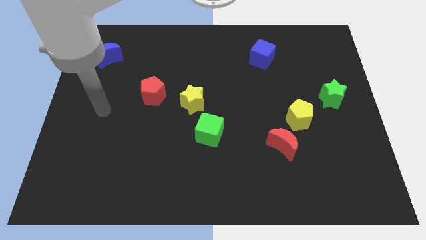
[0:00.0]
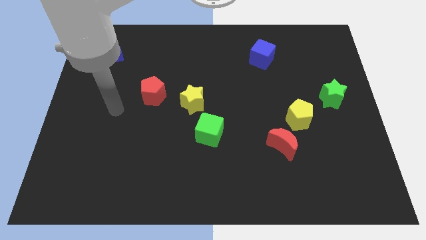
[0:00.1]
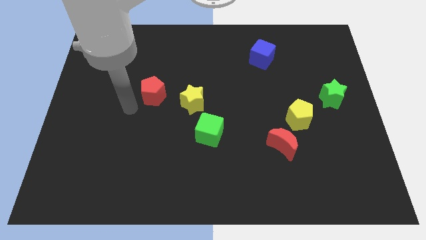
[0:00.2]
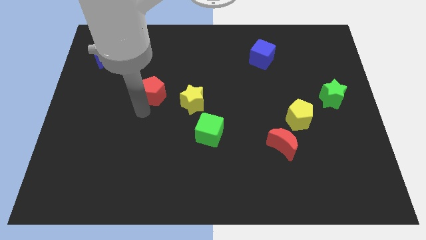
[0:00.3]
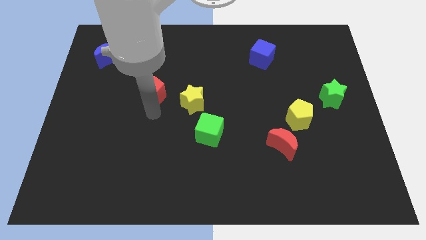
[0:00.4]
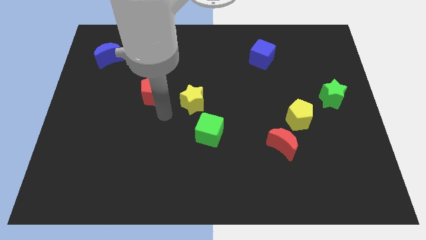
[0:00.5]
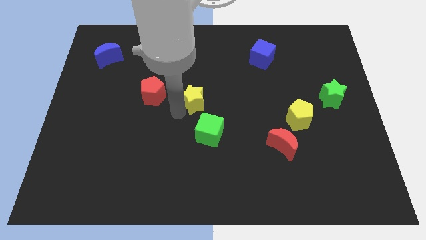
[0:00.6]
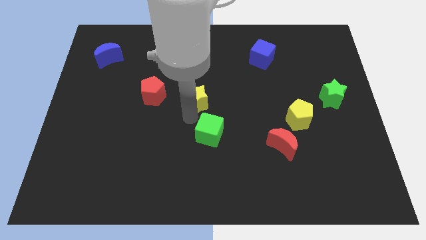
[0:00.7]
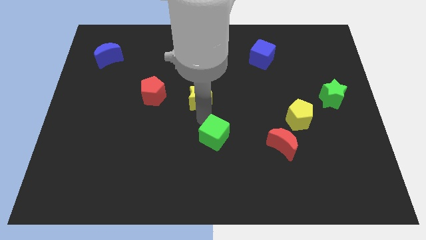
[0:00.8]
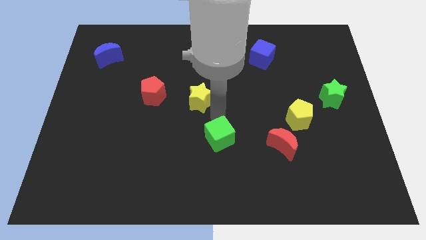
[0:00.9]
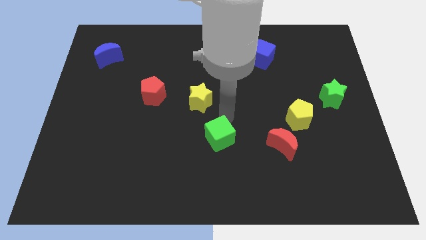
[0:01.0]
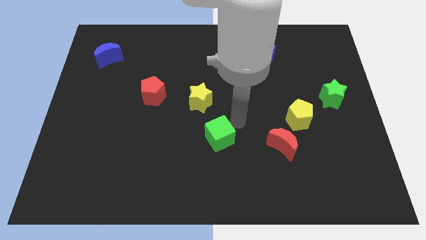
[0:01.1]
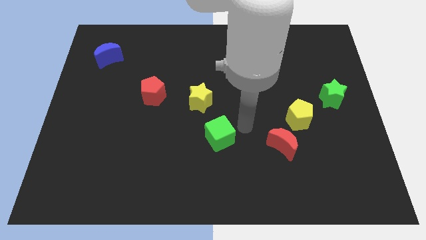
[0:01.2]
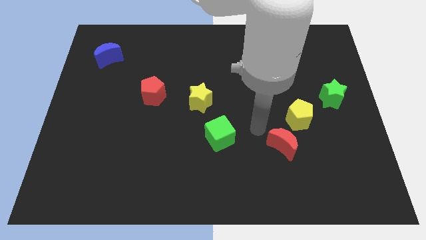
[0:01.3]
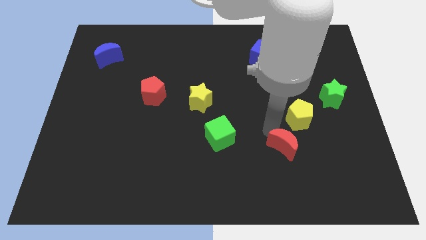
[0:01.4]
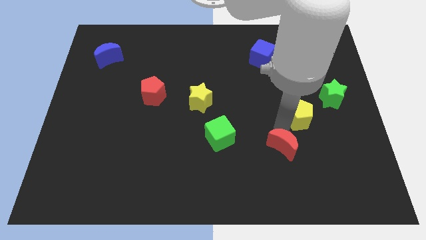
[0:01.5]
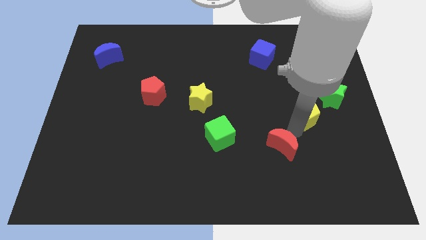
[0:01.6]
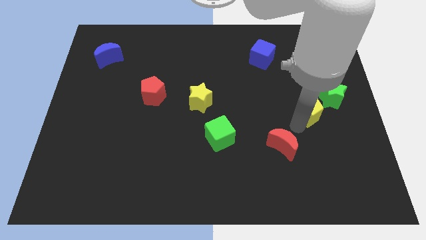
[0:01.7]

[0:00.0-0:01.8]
pull the red moon apart from the yellow pentagon

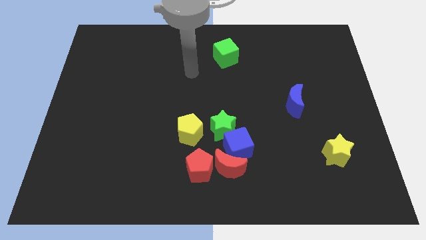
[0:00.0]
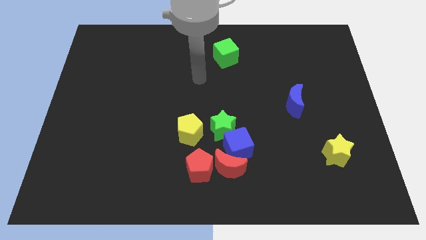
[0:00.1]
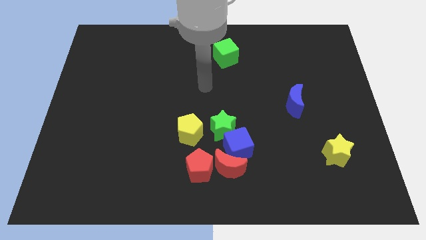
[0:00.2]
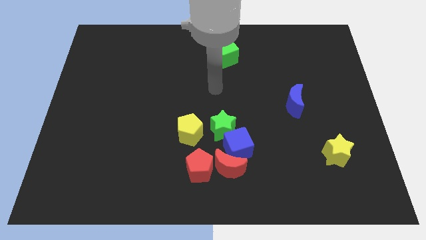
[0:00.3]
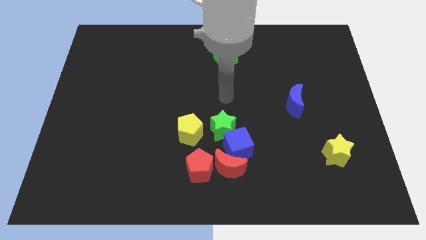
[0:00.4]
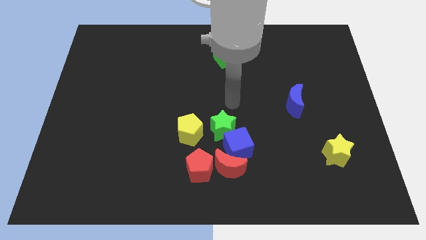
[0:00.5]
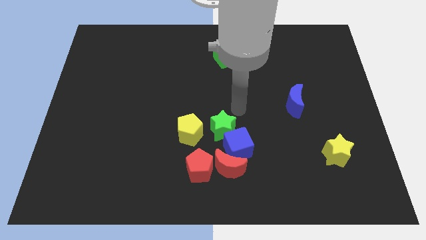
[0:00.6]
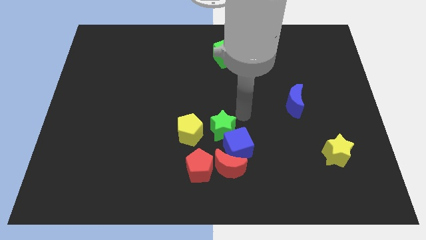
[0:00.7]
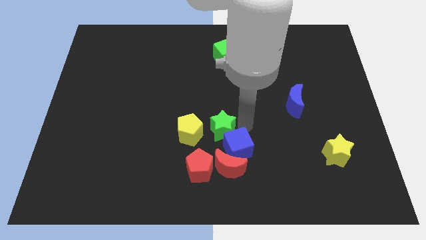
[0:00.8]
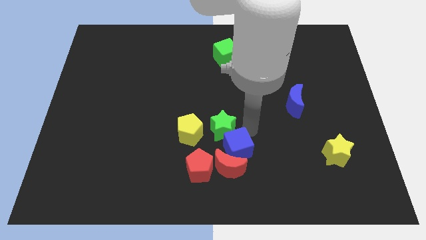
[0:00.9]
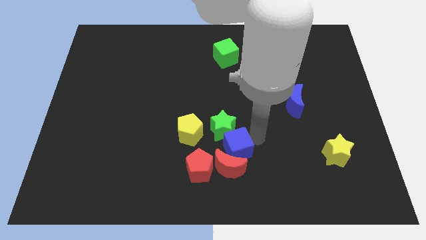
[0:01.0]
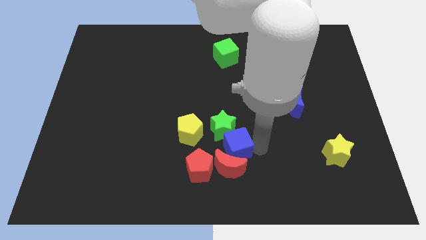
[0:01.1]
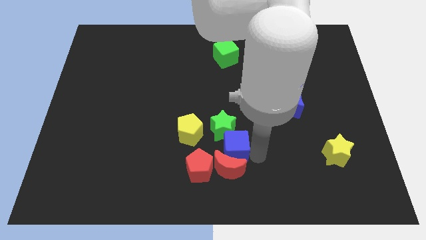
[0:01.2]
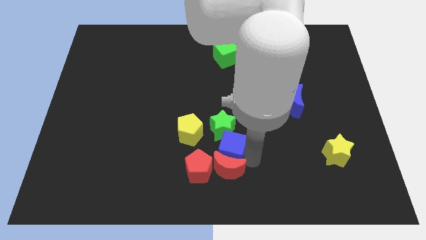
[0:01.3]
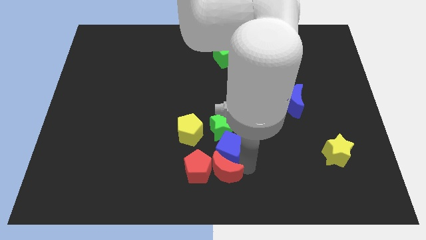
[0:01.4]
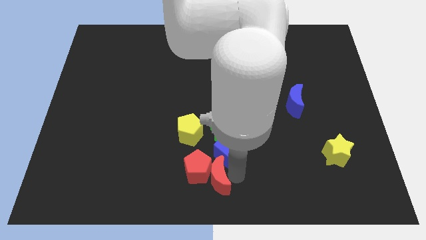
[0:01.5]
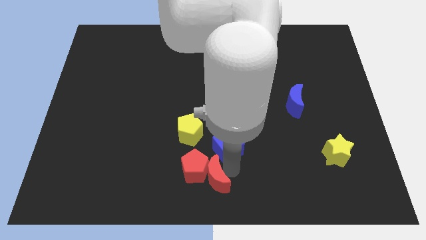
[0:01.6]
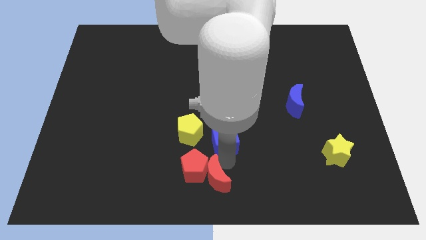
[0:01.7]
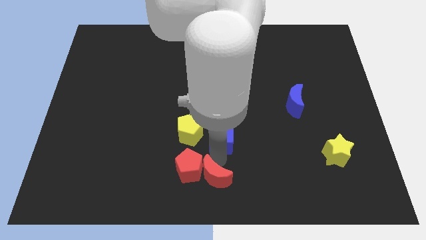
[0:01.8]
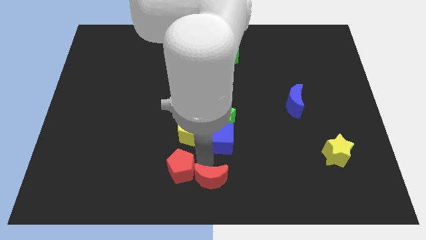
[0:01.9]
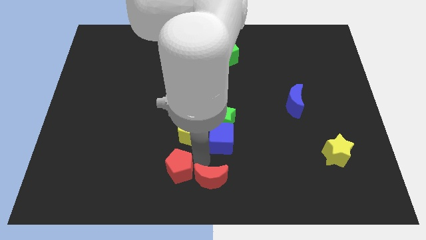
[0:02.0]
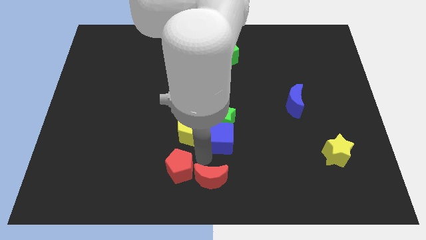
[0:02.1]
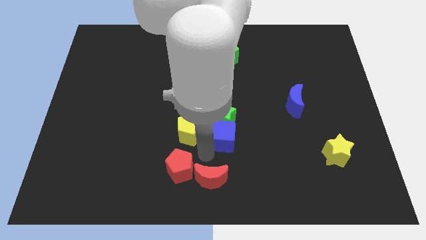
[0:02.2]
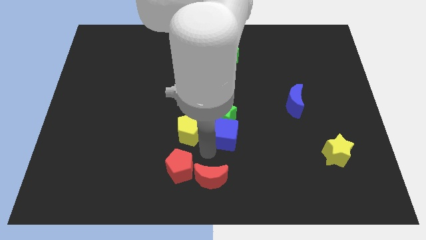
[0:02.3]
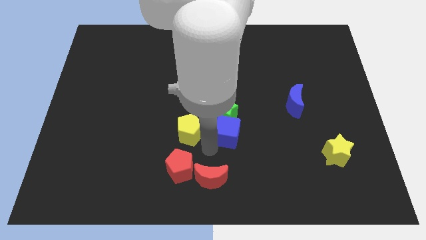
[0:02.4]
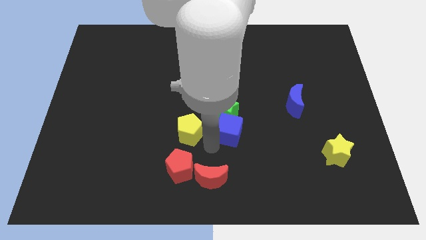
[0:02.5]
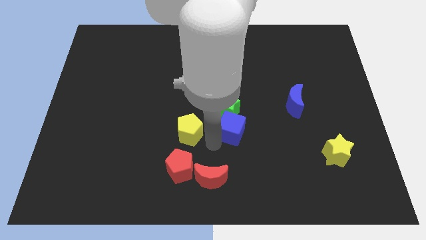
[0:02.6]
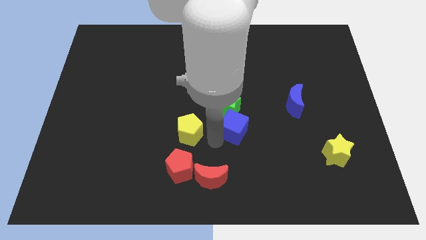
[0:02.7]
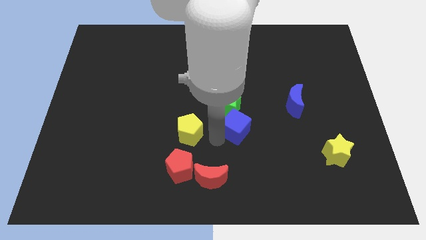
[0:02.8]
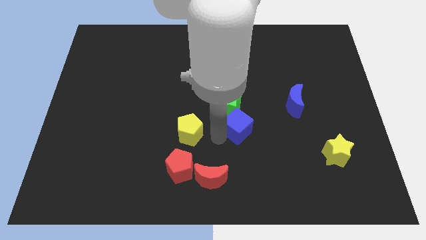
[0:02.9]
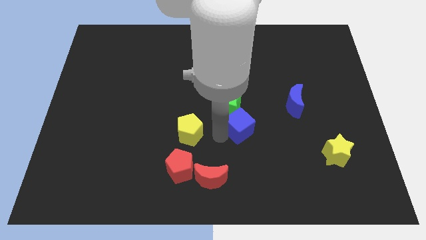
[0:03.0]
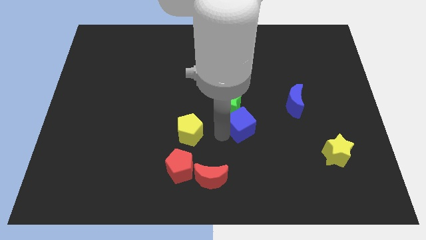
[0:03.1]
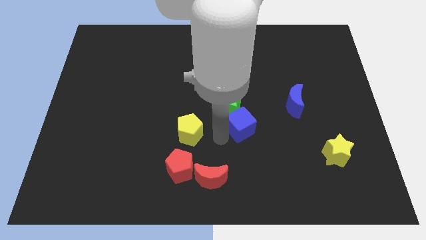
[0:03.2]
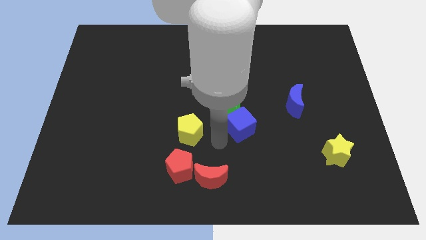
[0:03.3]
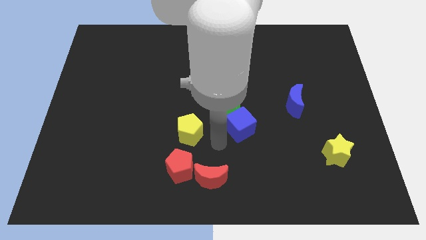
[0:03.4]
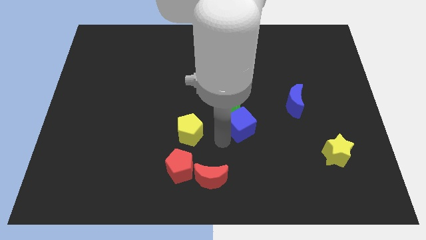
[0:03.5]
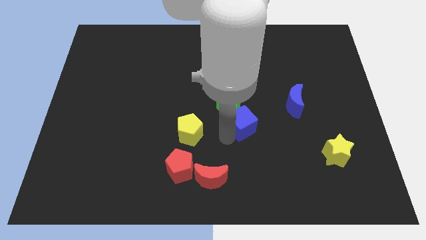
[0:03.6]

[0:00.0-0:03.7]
move the blue cube away from the red moon, green star, and red pentagon

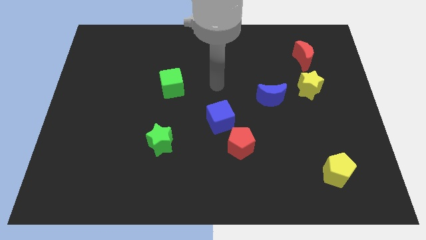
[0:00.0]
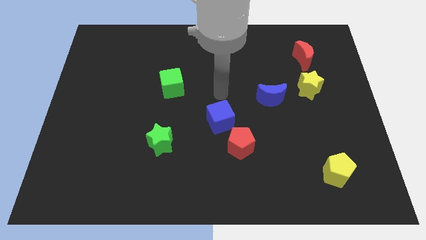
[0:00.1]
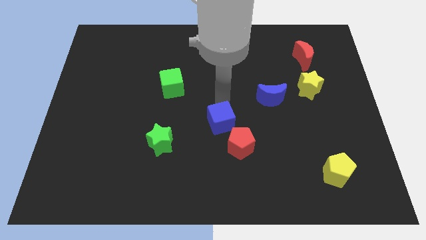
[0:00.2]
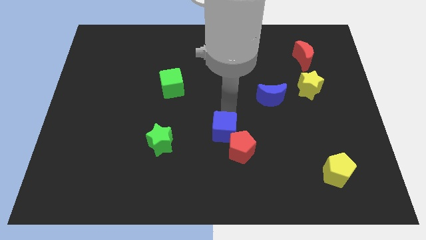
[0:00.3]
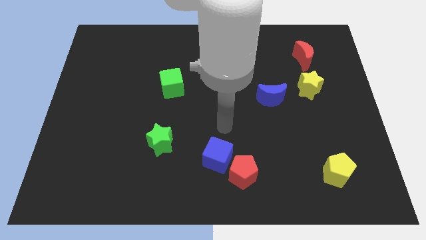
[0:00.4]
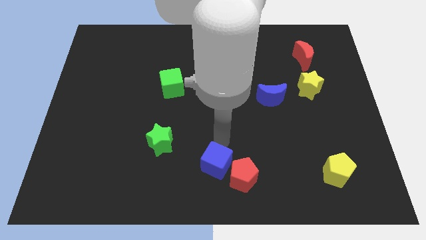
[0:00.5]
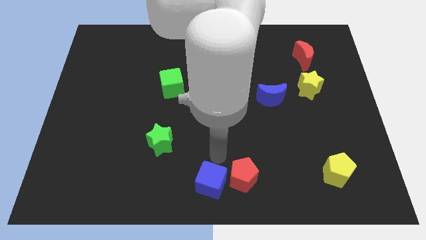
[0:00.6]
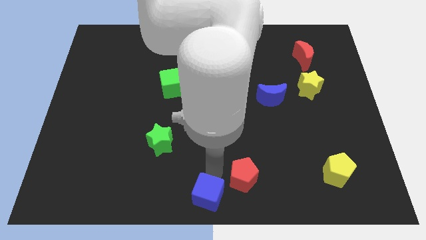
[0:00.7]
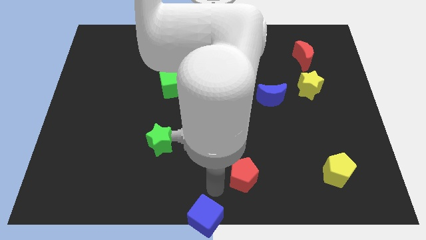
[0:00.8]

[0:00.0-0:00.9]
pull the red pentagon apart from the blue cube

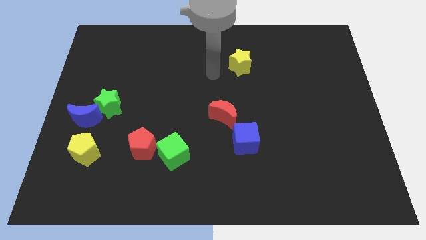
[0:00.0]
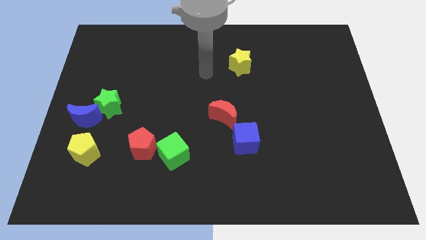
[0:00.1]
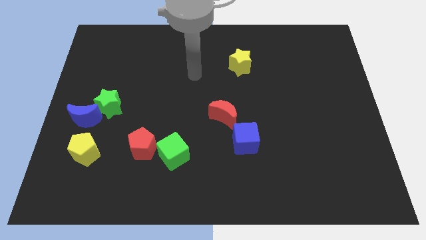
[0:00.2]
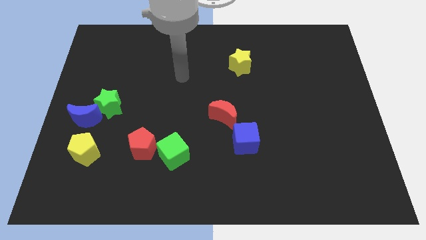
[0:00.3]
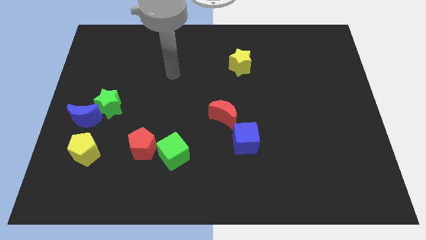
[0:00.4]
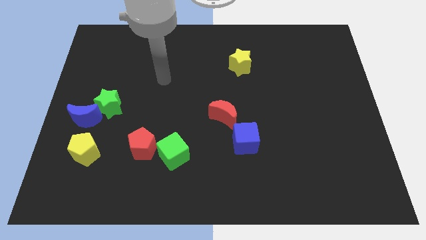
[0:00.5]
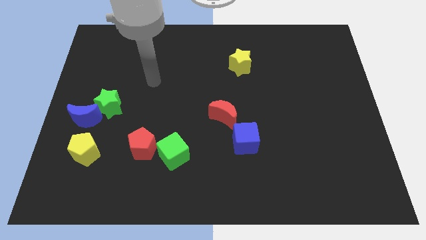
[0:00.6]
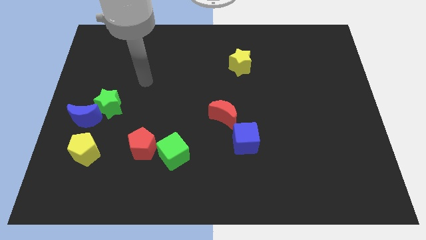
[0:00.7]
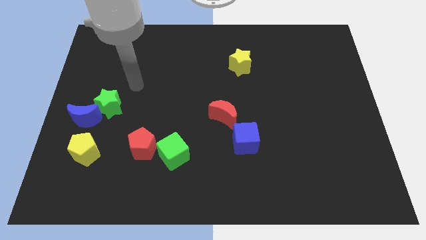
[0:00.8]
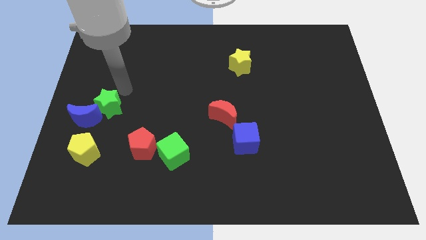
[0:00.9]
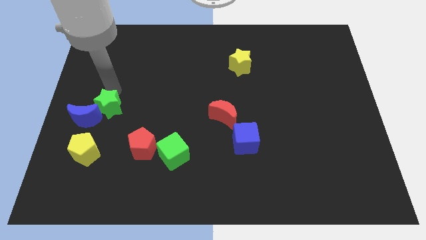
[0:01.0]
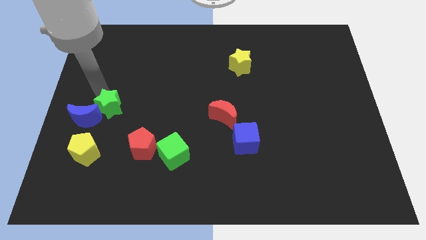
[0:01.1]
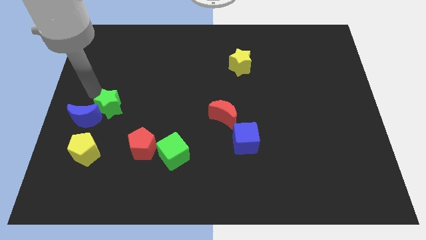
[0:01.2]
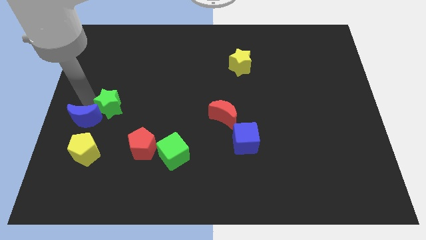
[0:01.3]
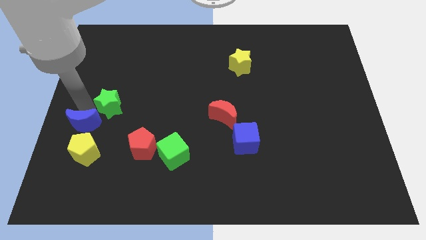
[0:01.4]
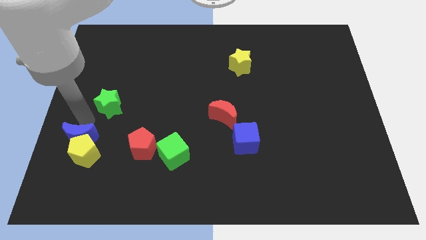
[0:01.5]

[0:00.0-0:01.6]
pull the green star apart from the blue moon

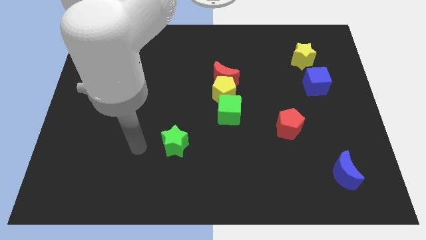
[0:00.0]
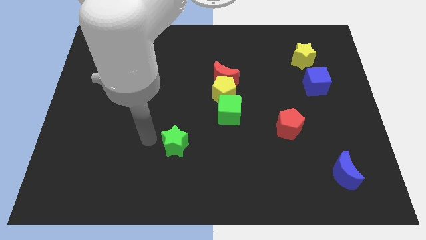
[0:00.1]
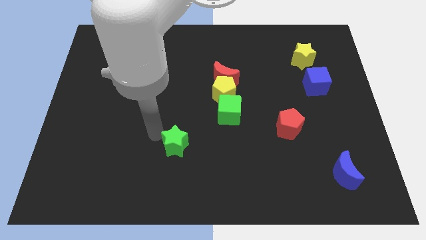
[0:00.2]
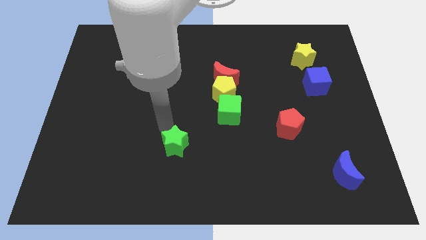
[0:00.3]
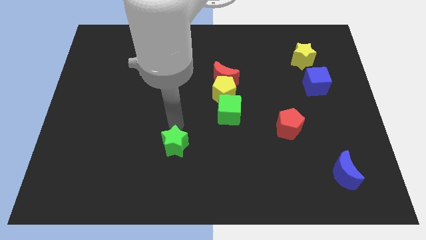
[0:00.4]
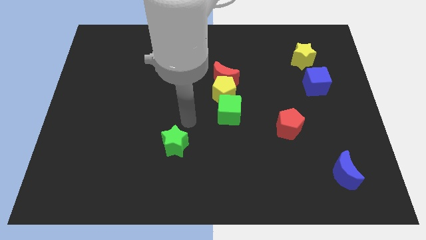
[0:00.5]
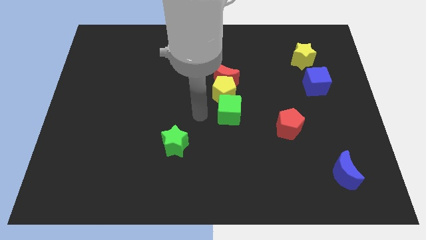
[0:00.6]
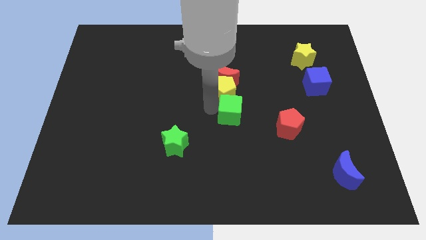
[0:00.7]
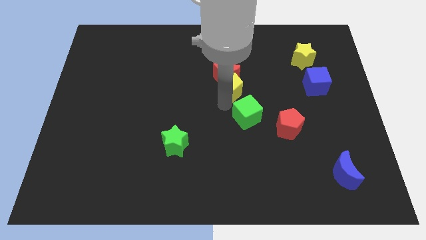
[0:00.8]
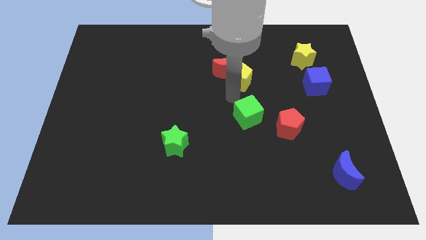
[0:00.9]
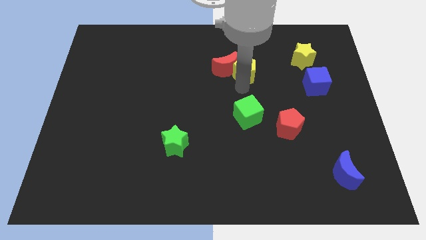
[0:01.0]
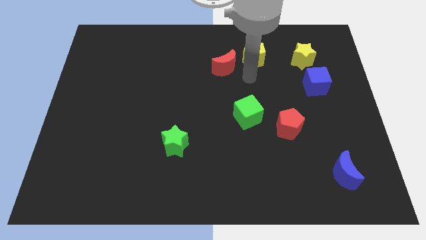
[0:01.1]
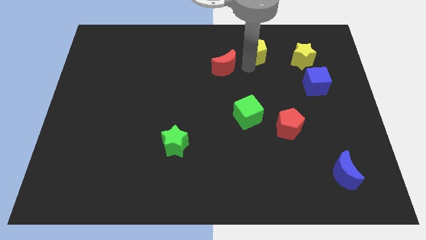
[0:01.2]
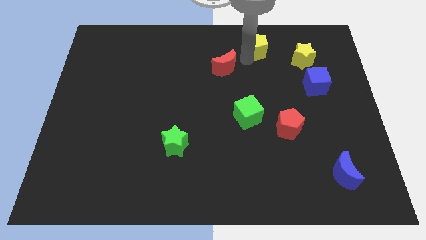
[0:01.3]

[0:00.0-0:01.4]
move the red moon away from the yellow pentagon
